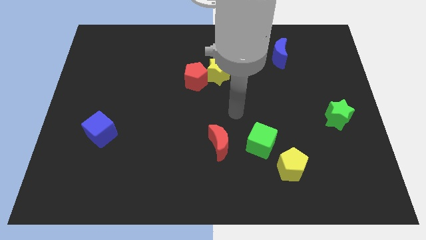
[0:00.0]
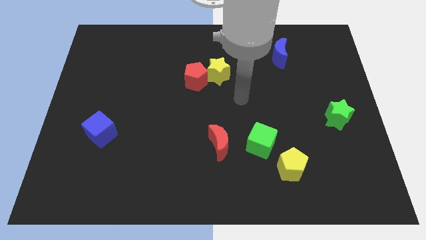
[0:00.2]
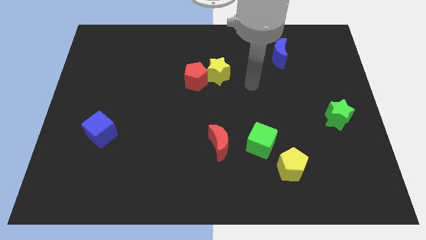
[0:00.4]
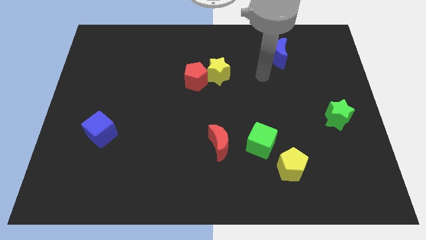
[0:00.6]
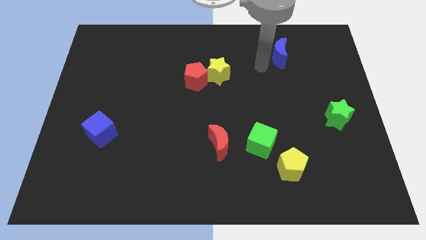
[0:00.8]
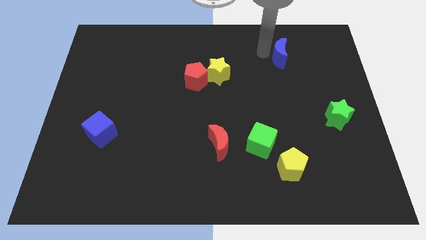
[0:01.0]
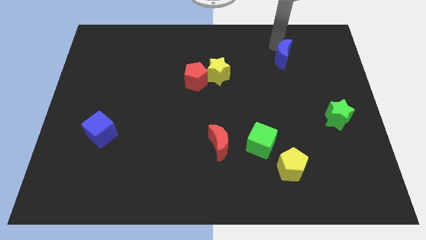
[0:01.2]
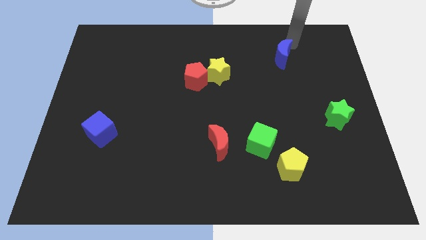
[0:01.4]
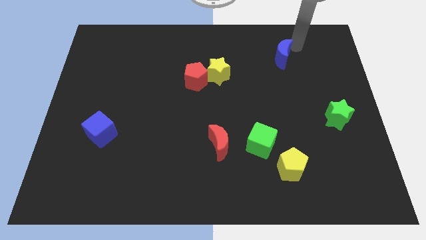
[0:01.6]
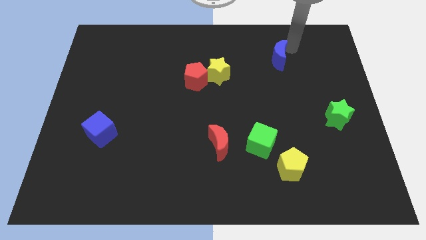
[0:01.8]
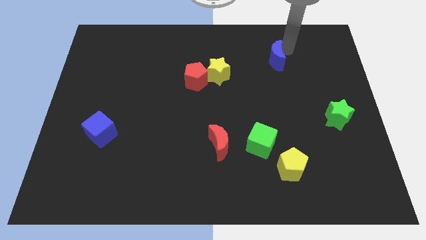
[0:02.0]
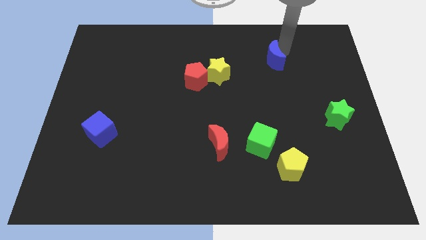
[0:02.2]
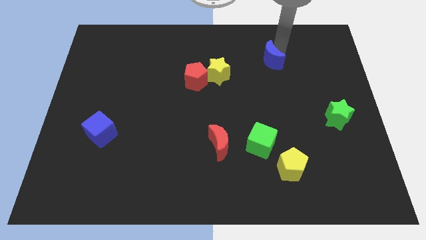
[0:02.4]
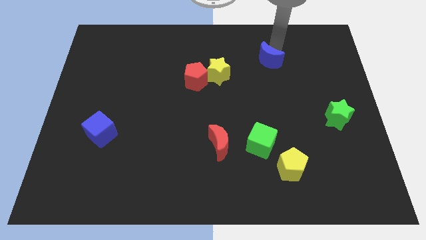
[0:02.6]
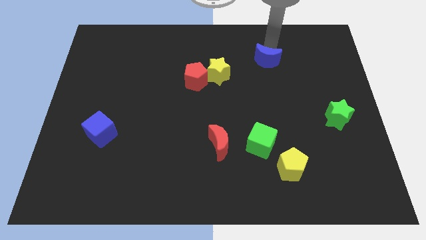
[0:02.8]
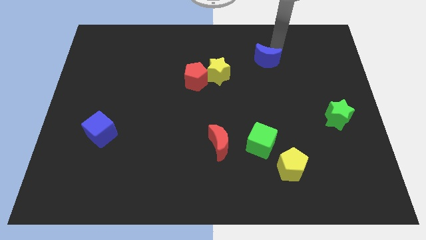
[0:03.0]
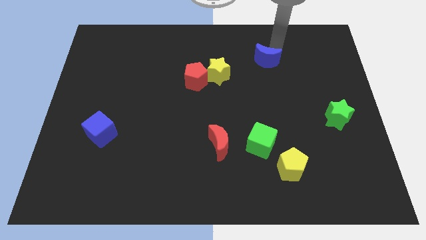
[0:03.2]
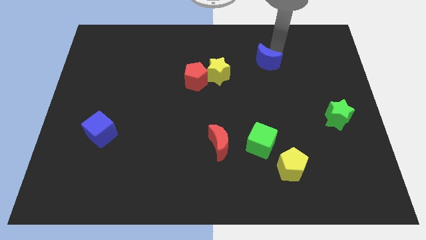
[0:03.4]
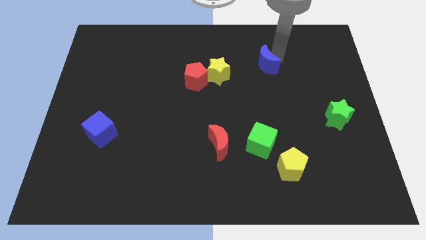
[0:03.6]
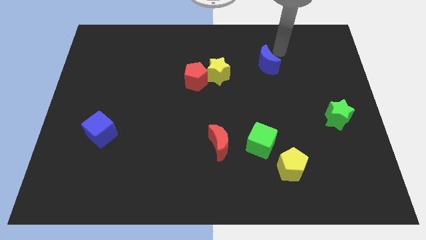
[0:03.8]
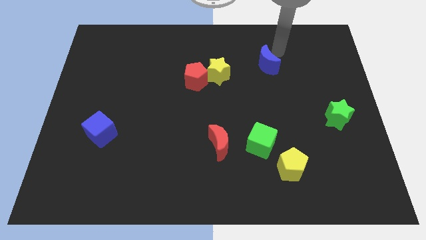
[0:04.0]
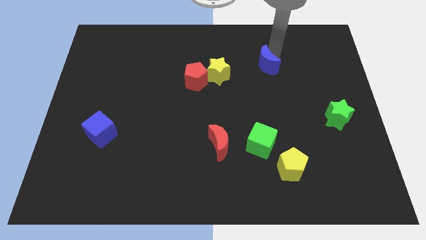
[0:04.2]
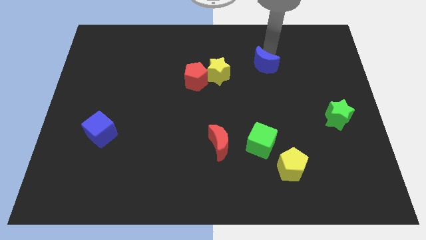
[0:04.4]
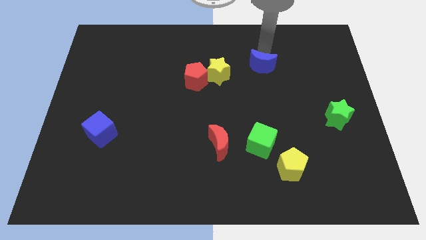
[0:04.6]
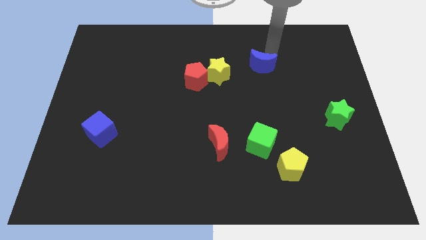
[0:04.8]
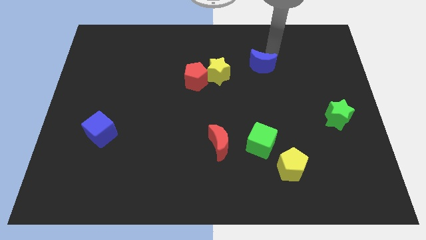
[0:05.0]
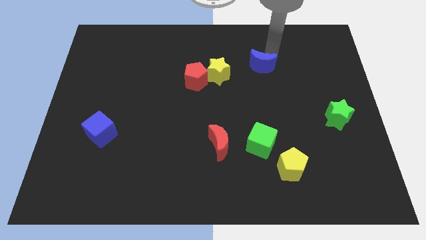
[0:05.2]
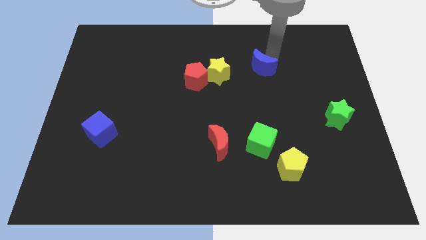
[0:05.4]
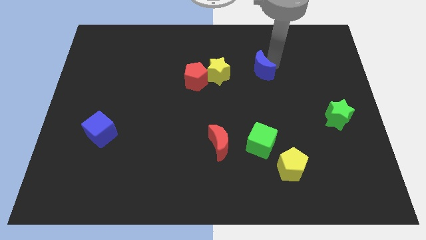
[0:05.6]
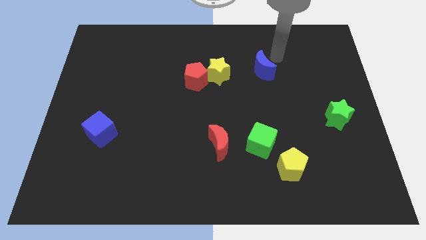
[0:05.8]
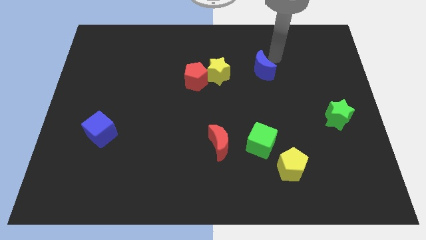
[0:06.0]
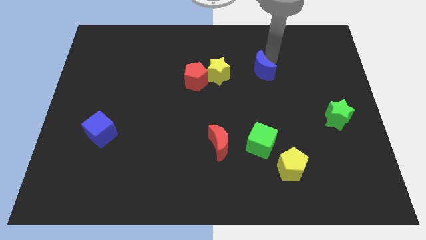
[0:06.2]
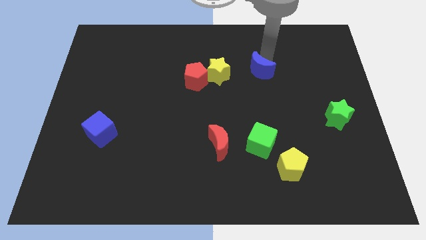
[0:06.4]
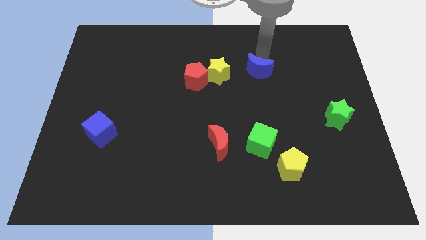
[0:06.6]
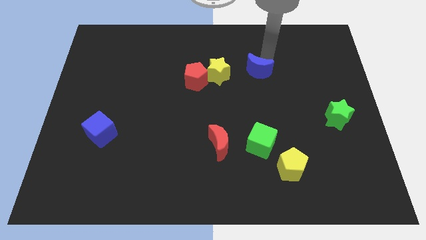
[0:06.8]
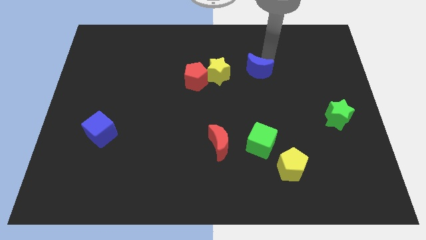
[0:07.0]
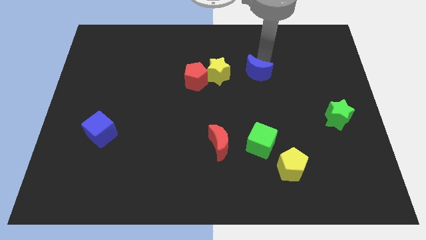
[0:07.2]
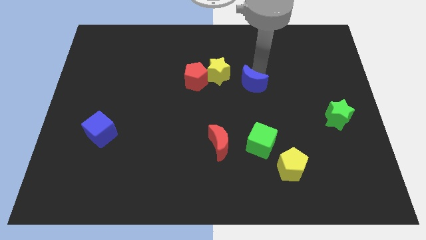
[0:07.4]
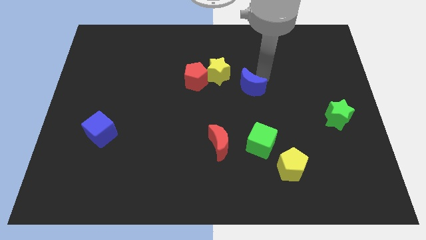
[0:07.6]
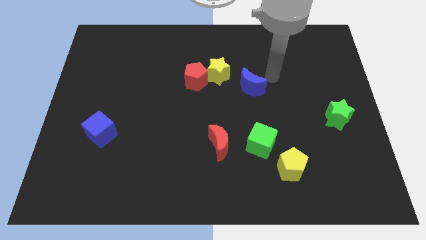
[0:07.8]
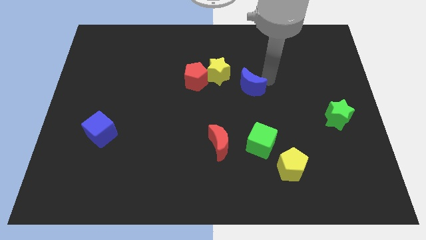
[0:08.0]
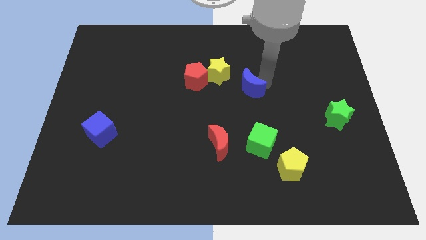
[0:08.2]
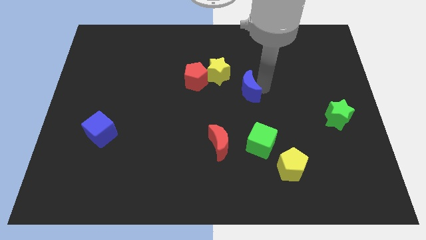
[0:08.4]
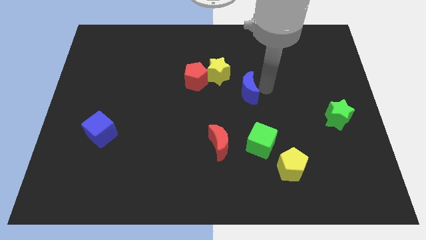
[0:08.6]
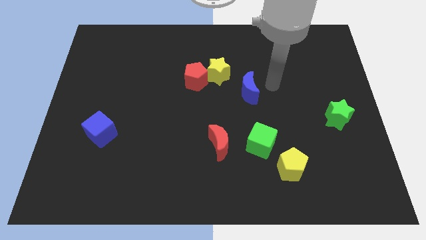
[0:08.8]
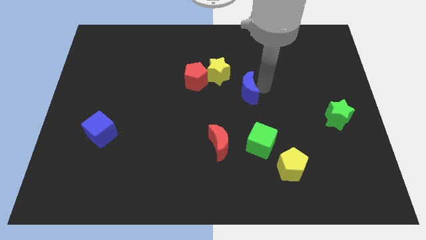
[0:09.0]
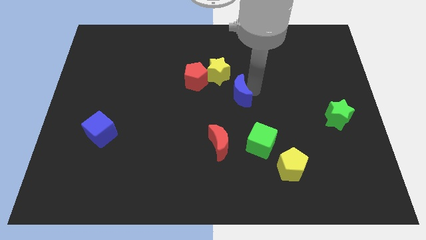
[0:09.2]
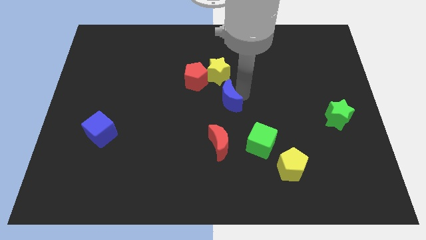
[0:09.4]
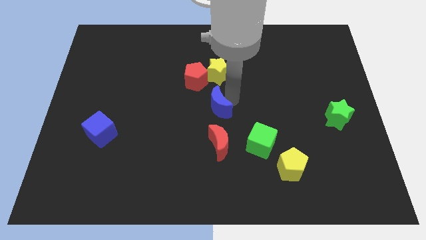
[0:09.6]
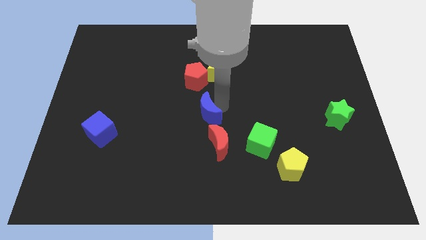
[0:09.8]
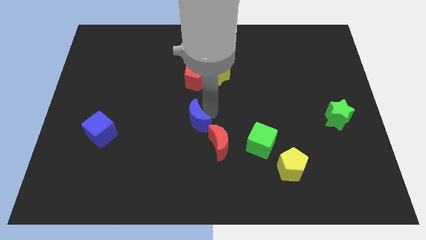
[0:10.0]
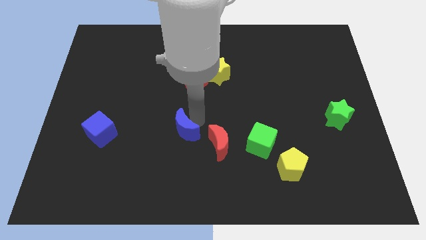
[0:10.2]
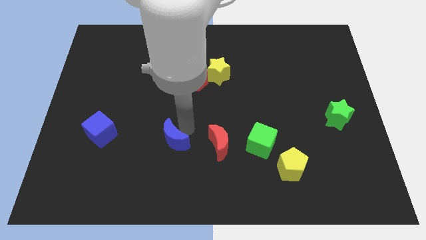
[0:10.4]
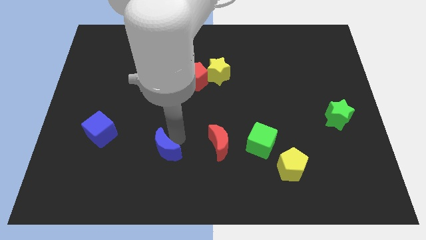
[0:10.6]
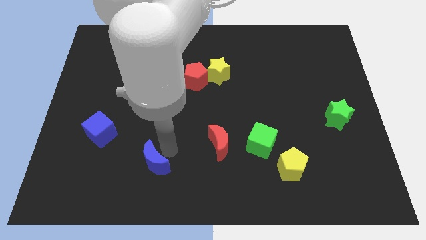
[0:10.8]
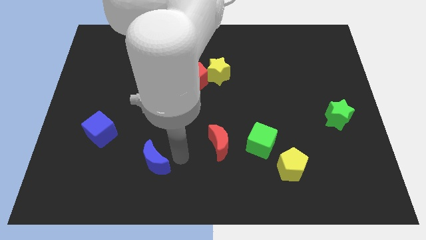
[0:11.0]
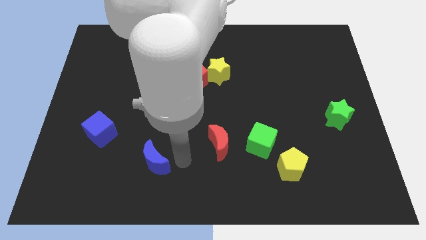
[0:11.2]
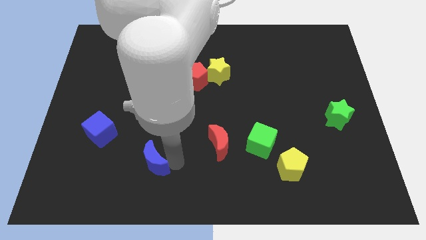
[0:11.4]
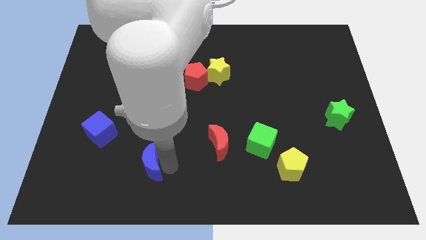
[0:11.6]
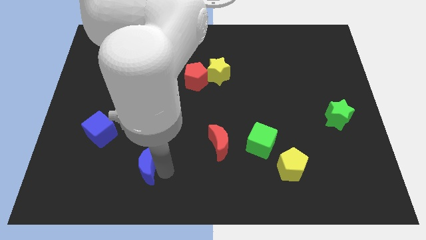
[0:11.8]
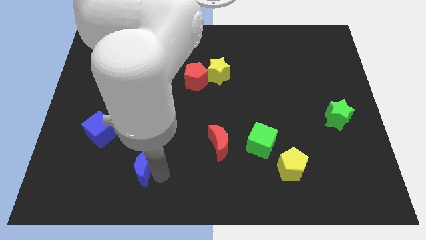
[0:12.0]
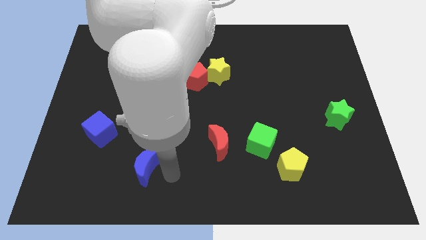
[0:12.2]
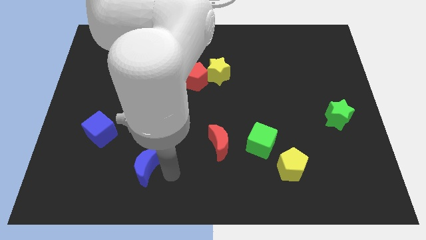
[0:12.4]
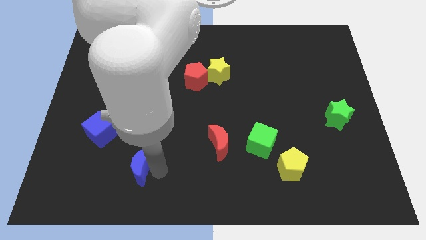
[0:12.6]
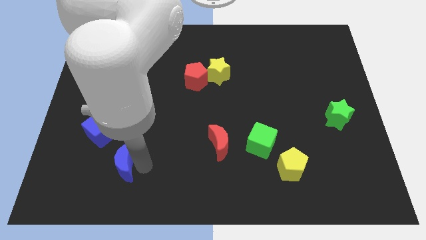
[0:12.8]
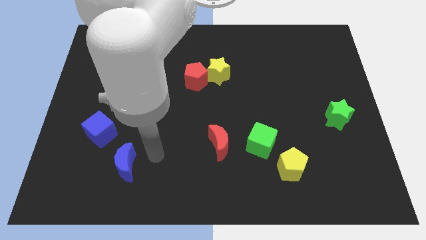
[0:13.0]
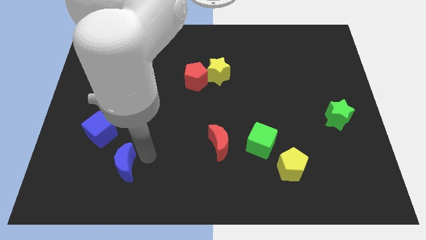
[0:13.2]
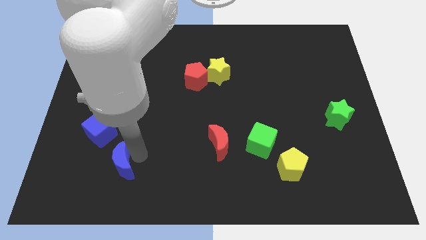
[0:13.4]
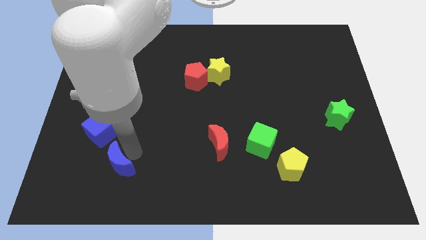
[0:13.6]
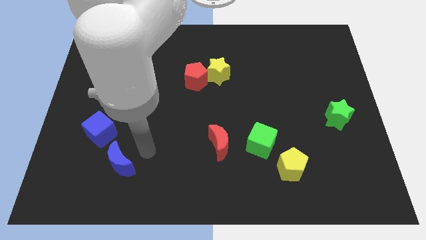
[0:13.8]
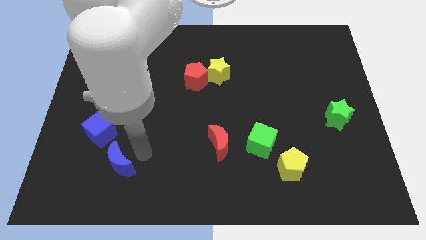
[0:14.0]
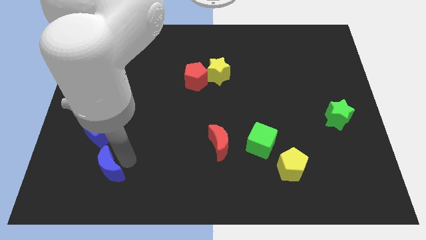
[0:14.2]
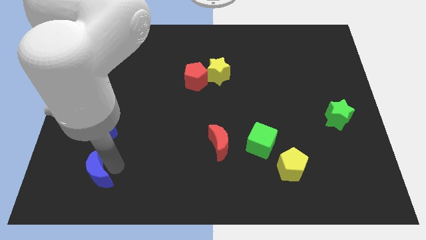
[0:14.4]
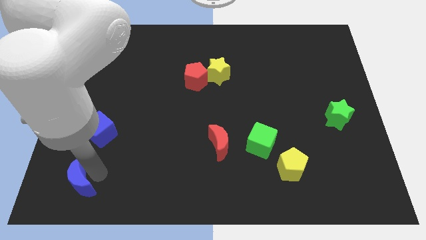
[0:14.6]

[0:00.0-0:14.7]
slide the blue moon to the bottom left
